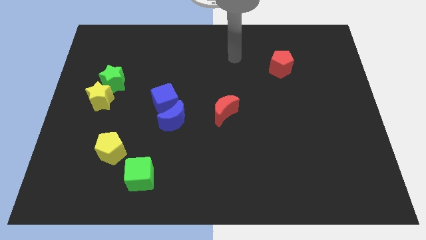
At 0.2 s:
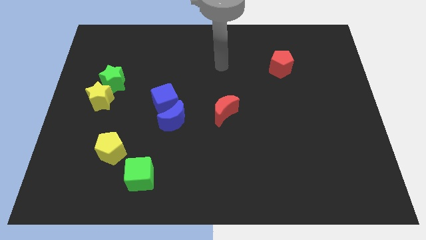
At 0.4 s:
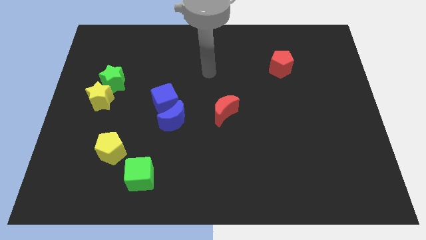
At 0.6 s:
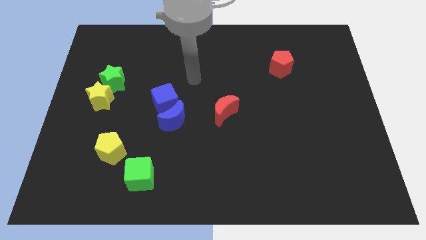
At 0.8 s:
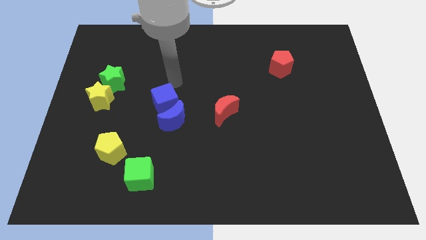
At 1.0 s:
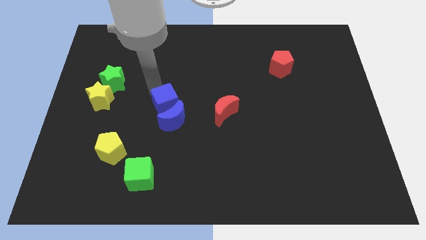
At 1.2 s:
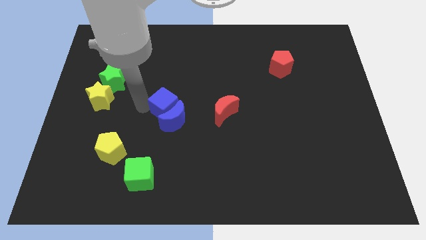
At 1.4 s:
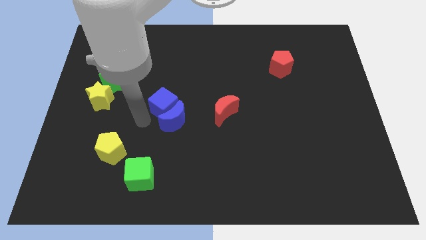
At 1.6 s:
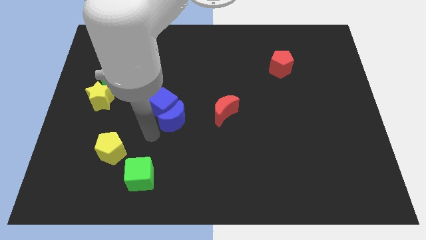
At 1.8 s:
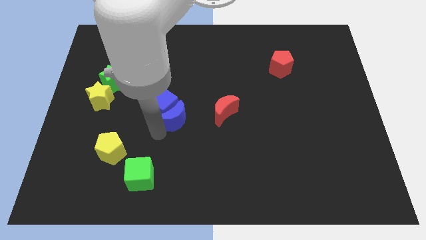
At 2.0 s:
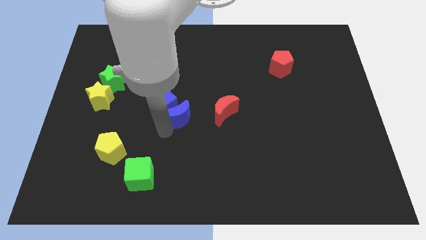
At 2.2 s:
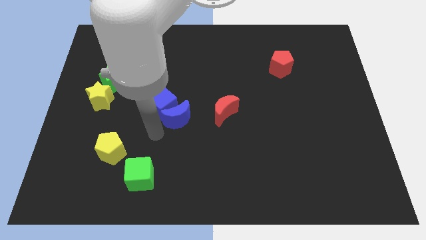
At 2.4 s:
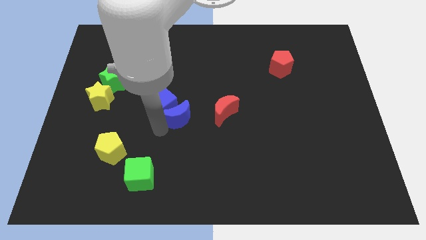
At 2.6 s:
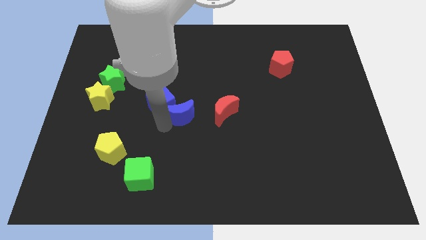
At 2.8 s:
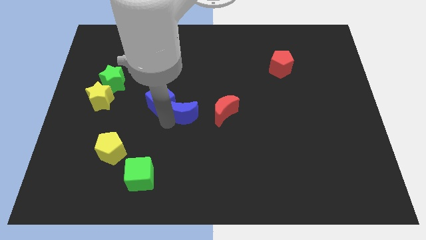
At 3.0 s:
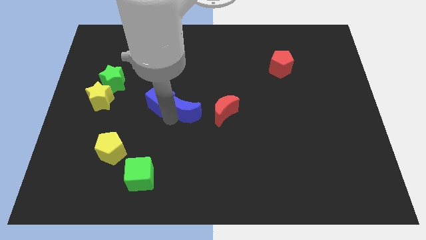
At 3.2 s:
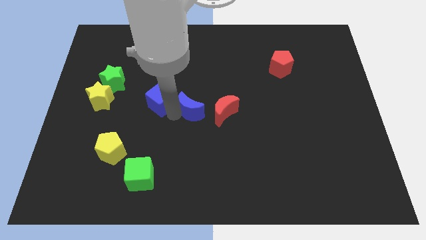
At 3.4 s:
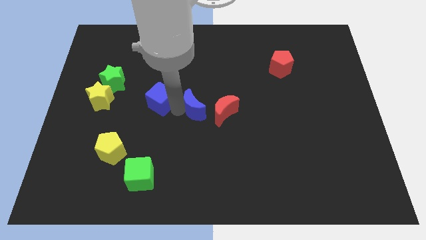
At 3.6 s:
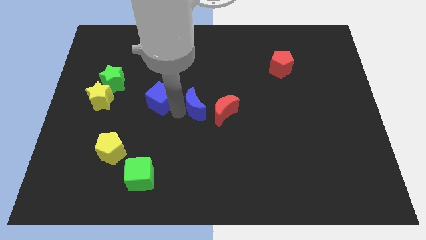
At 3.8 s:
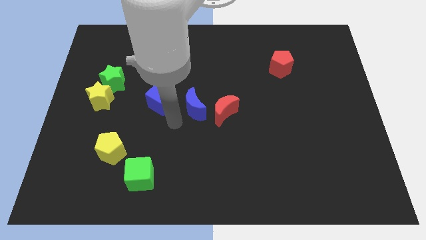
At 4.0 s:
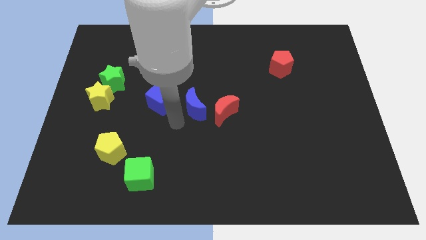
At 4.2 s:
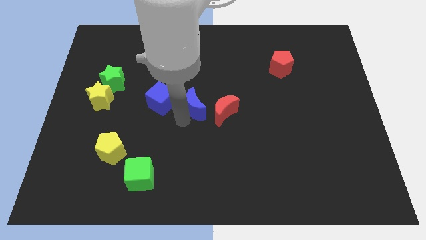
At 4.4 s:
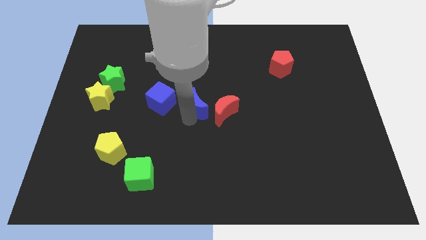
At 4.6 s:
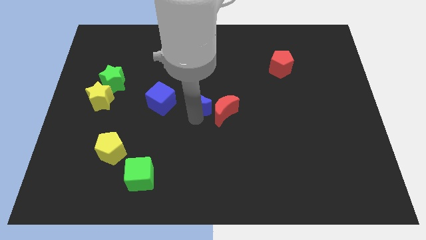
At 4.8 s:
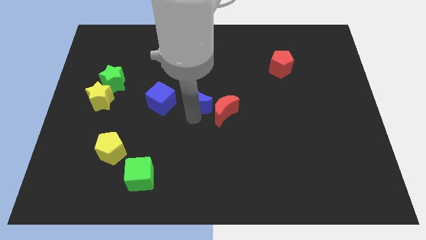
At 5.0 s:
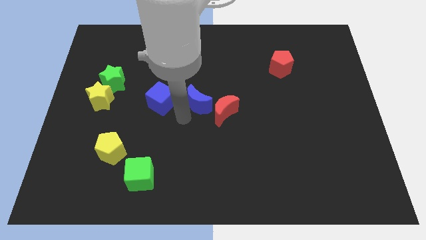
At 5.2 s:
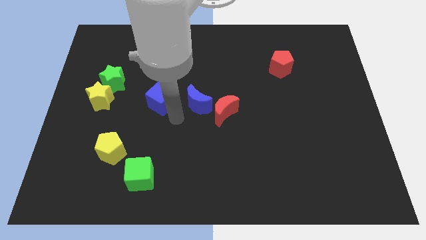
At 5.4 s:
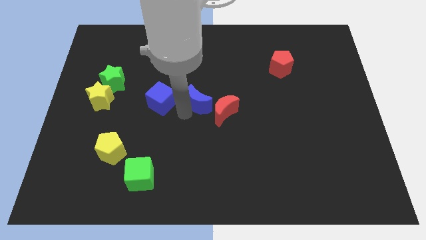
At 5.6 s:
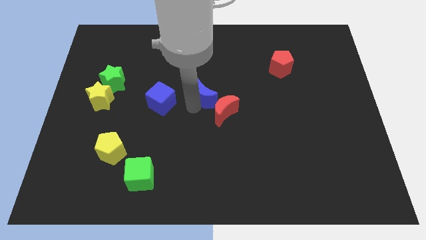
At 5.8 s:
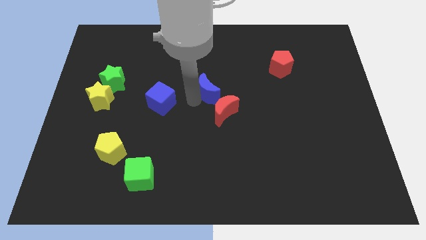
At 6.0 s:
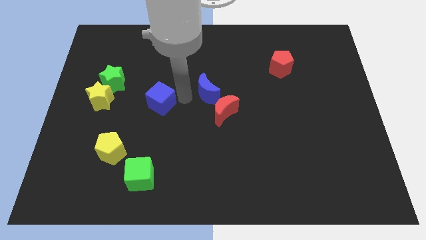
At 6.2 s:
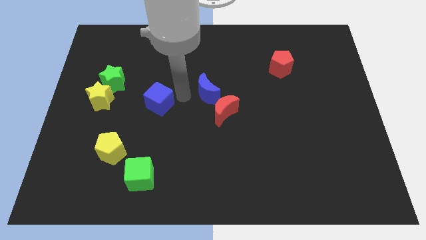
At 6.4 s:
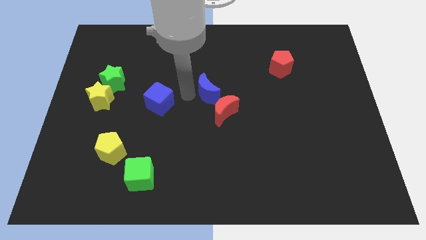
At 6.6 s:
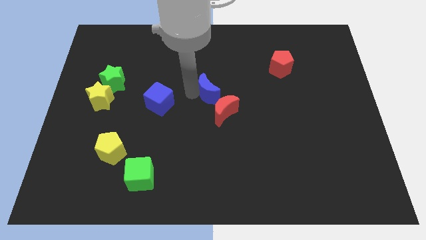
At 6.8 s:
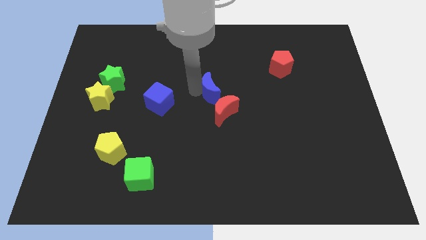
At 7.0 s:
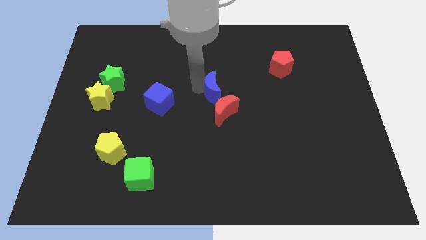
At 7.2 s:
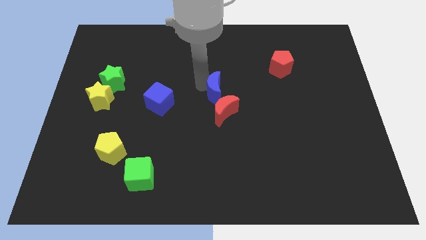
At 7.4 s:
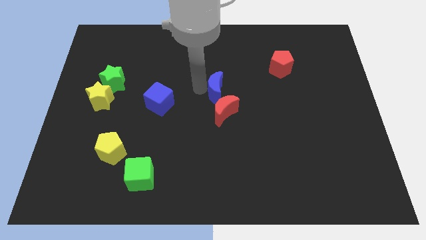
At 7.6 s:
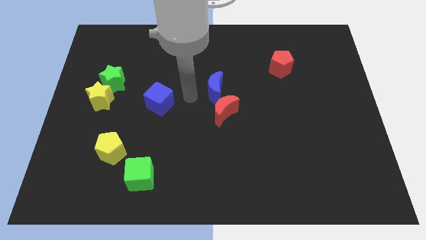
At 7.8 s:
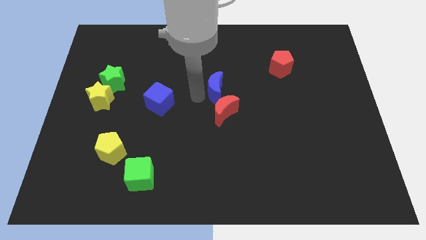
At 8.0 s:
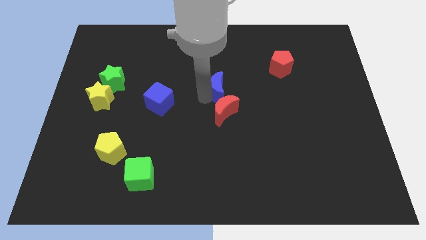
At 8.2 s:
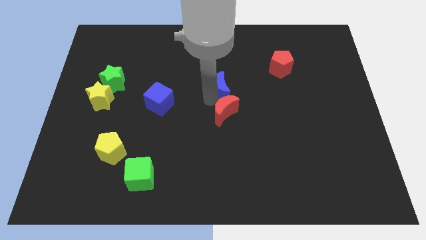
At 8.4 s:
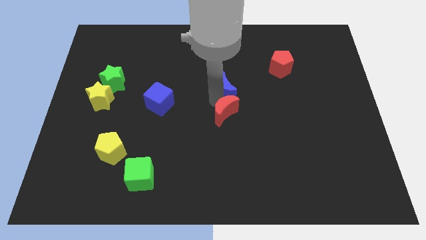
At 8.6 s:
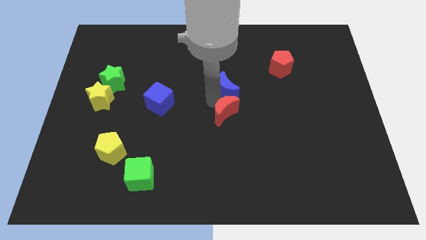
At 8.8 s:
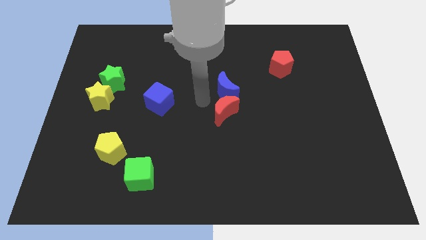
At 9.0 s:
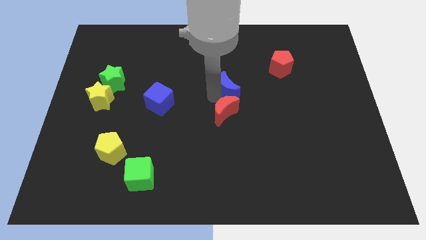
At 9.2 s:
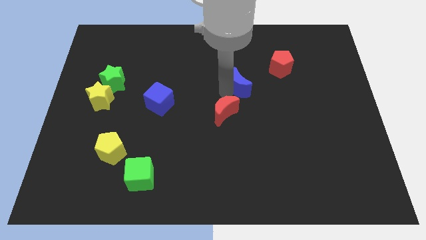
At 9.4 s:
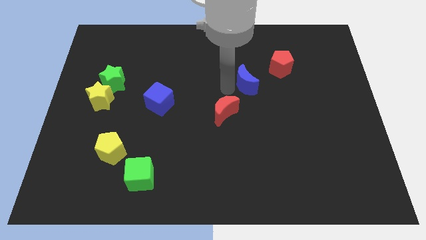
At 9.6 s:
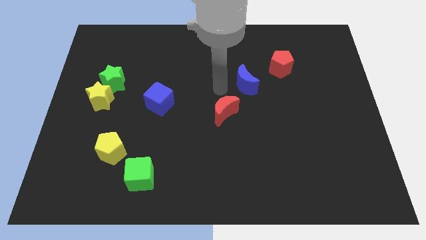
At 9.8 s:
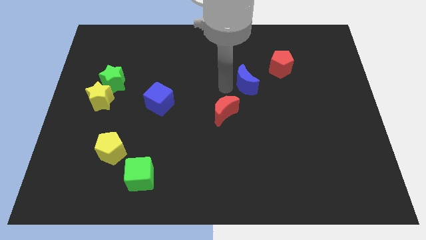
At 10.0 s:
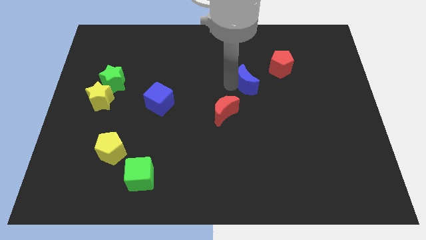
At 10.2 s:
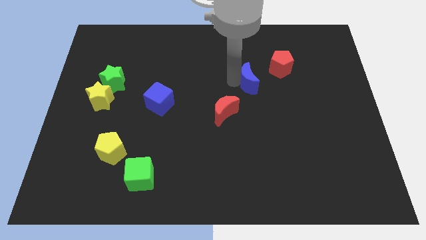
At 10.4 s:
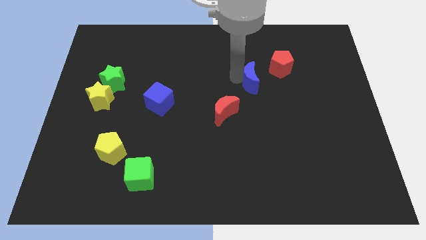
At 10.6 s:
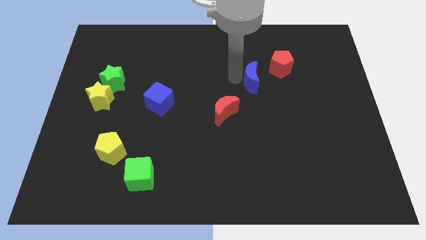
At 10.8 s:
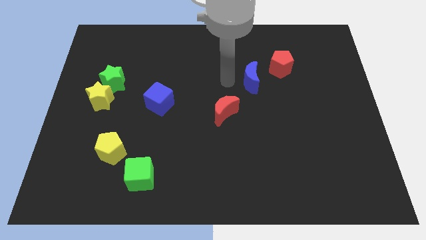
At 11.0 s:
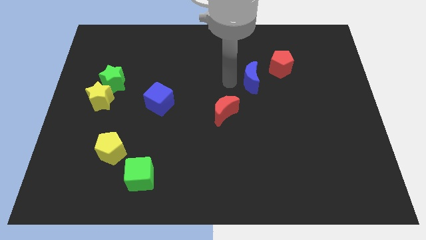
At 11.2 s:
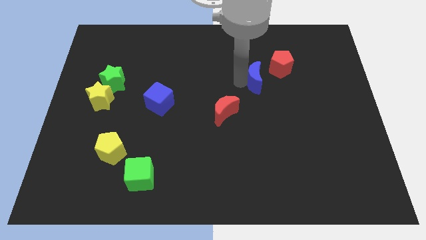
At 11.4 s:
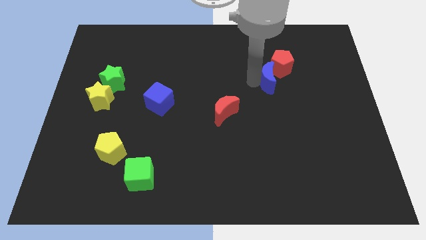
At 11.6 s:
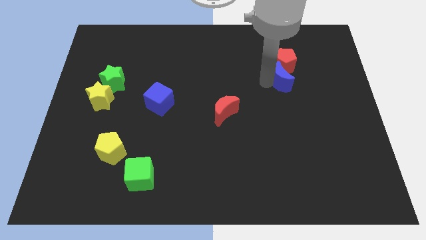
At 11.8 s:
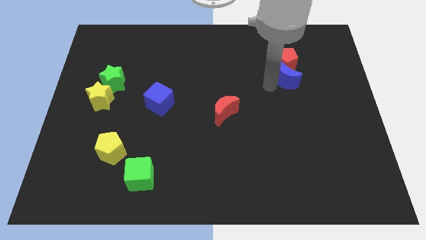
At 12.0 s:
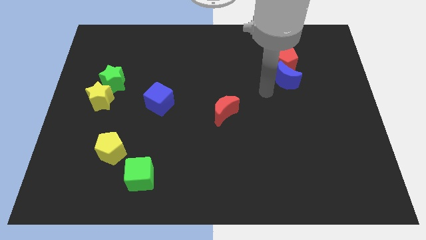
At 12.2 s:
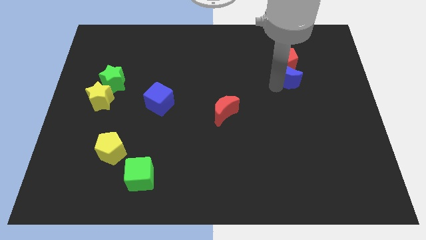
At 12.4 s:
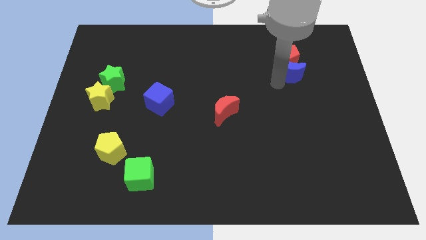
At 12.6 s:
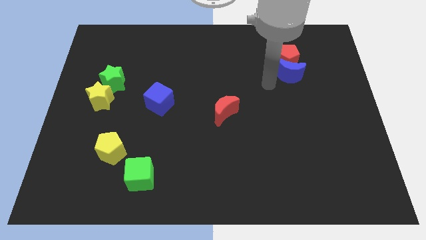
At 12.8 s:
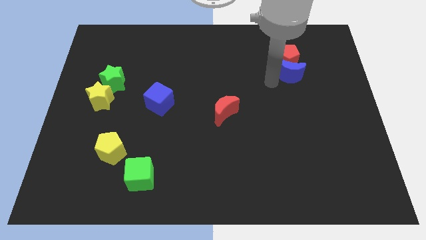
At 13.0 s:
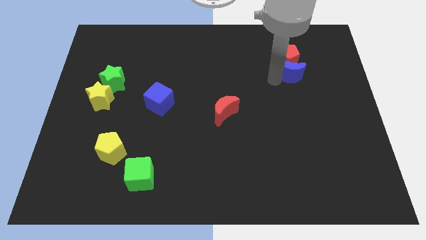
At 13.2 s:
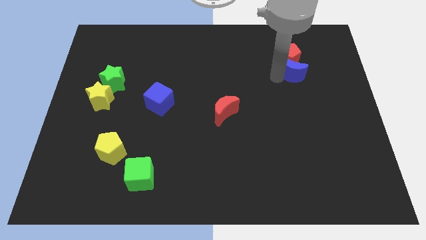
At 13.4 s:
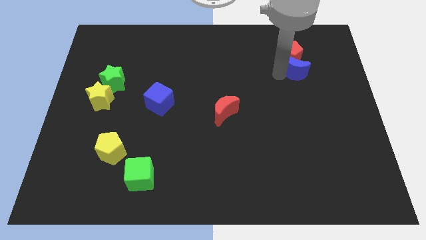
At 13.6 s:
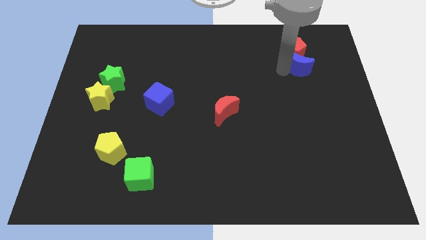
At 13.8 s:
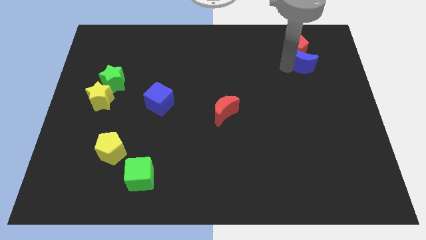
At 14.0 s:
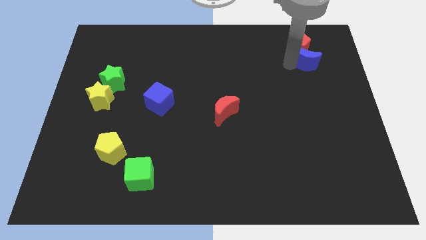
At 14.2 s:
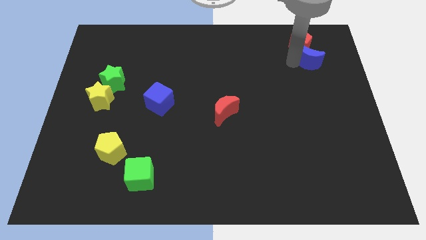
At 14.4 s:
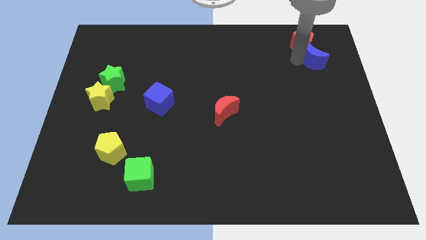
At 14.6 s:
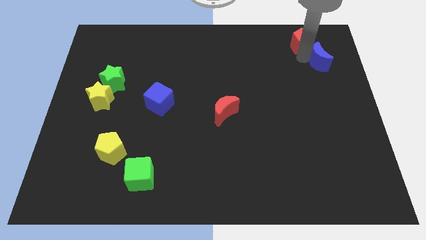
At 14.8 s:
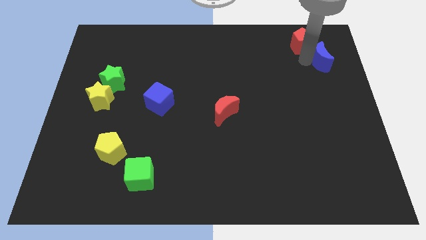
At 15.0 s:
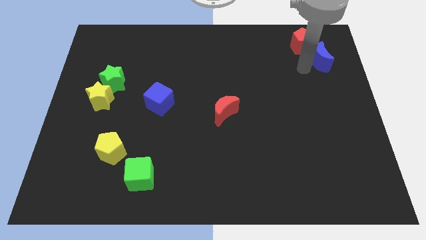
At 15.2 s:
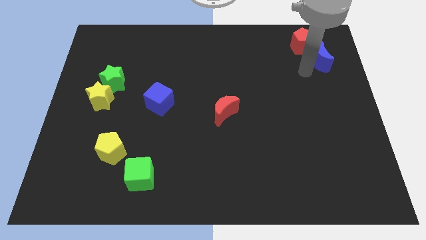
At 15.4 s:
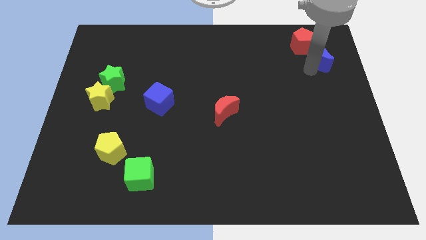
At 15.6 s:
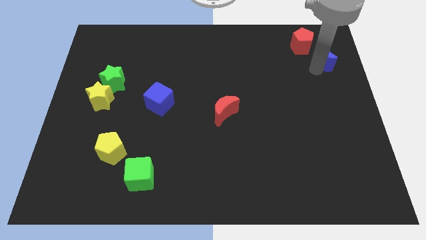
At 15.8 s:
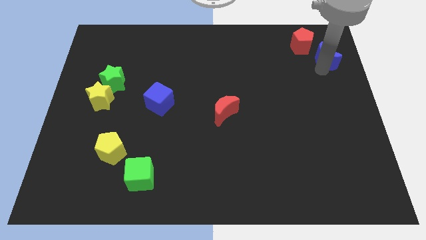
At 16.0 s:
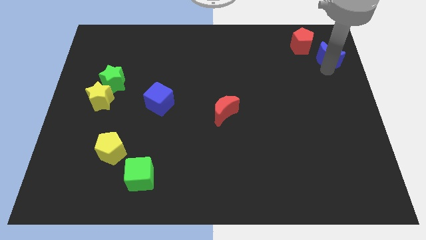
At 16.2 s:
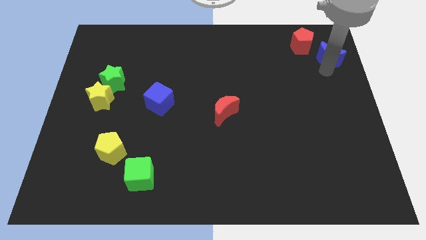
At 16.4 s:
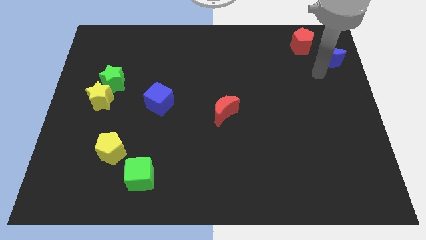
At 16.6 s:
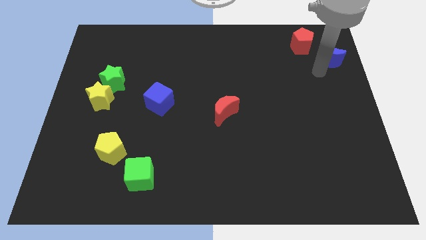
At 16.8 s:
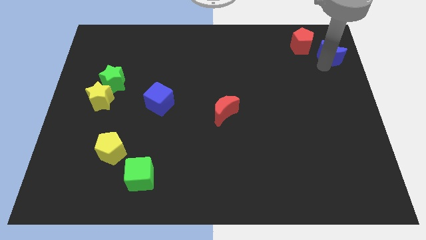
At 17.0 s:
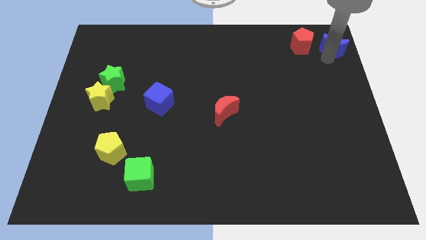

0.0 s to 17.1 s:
put the blue moon to the upper right corner
